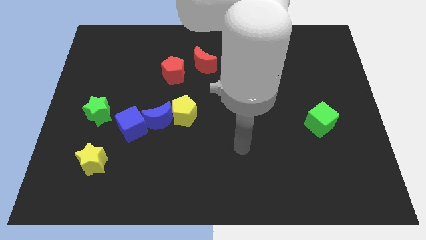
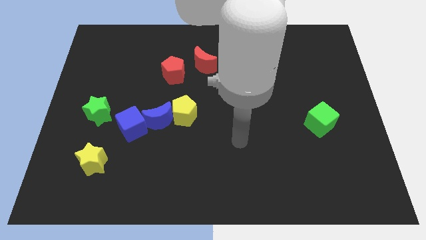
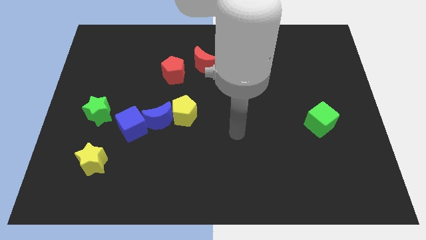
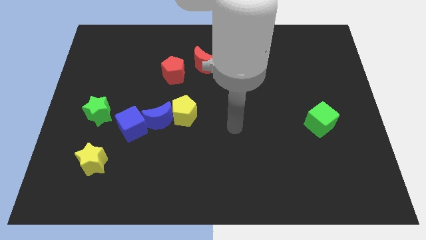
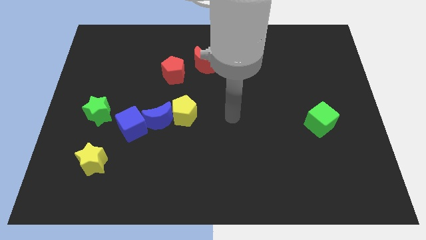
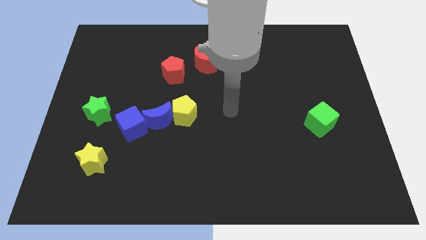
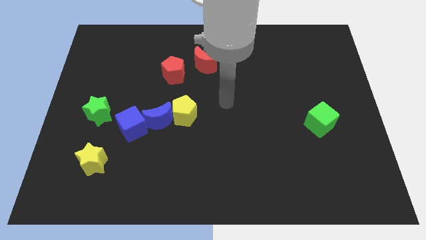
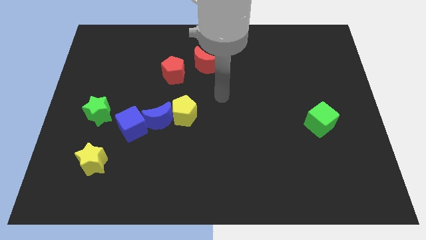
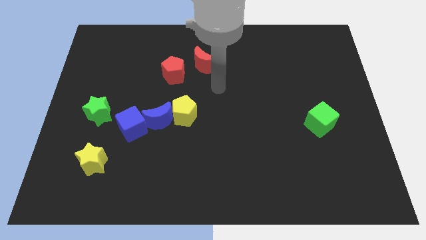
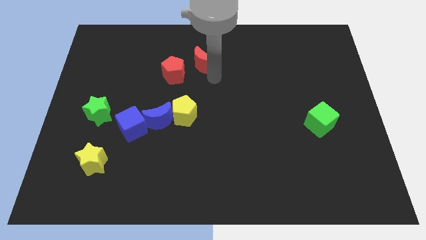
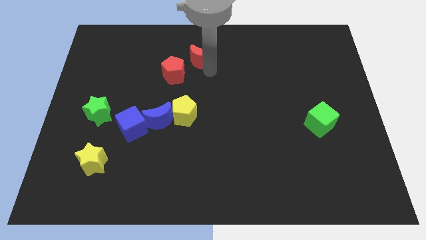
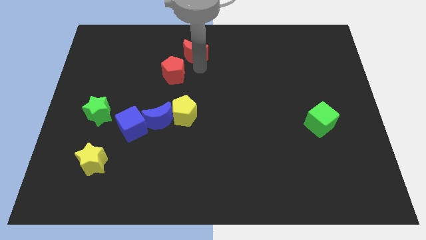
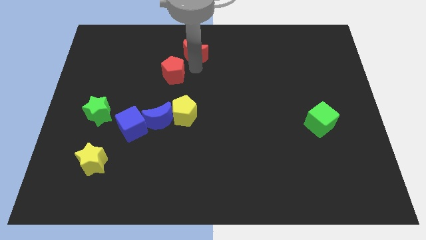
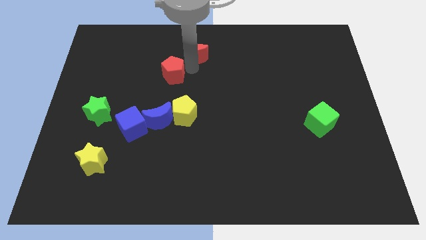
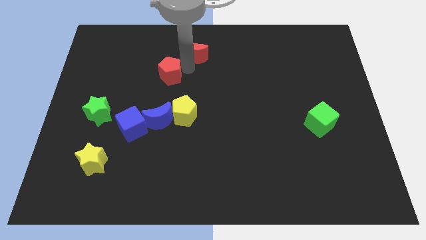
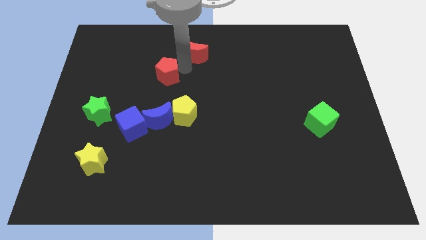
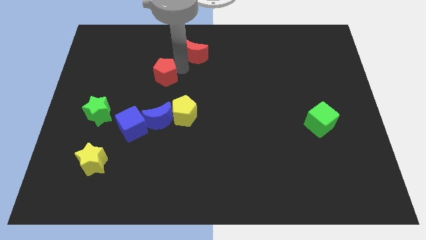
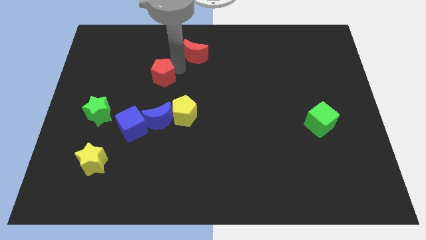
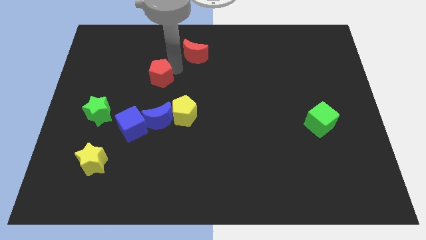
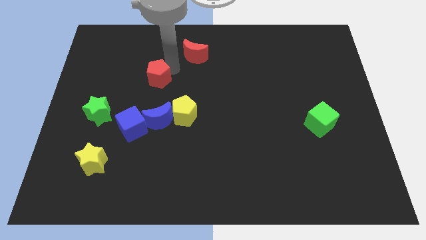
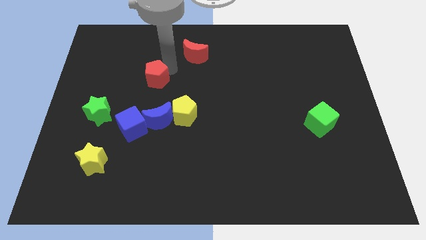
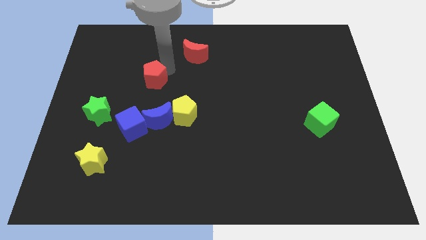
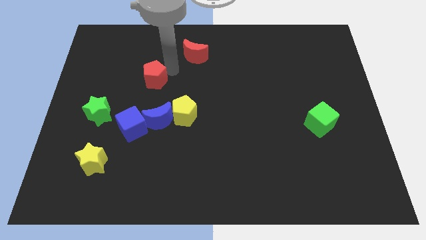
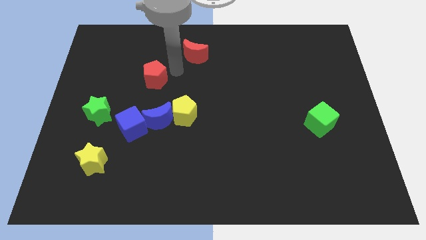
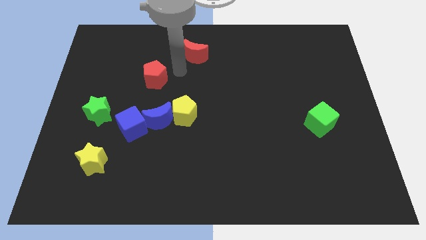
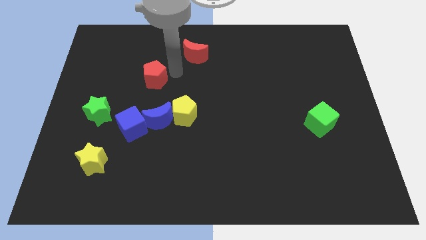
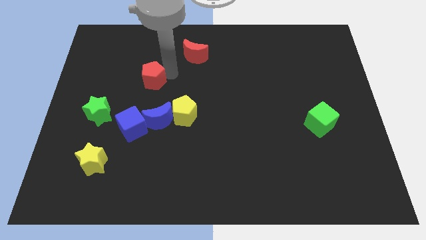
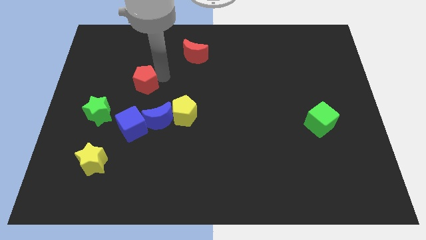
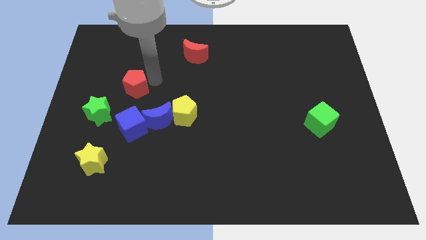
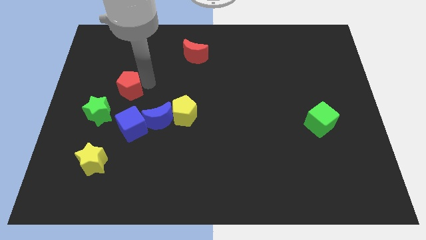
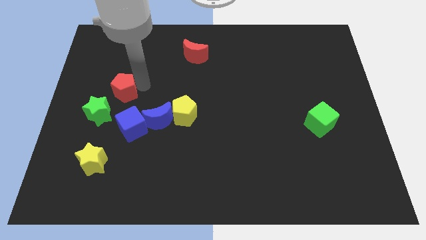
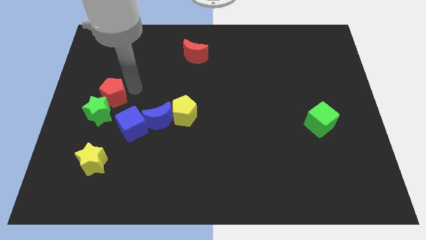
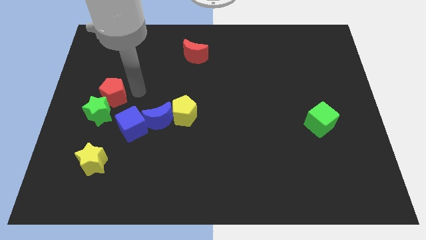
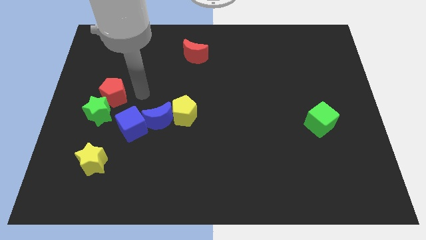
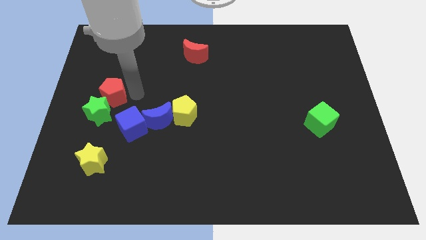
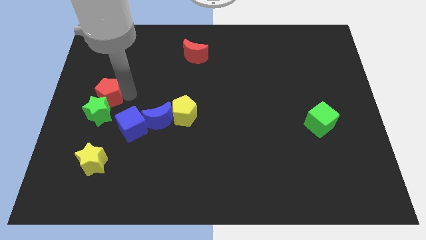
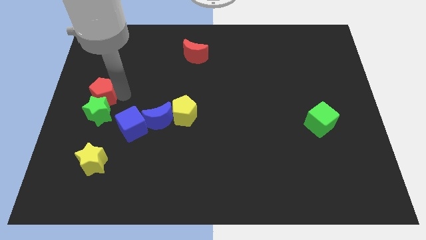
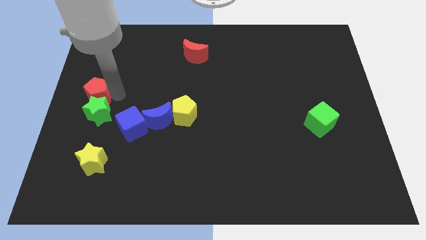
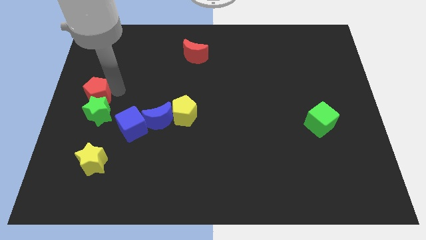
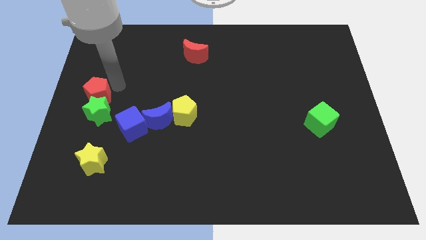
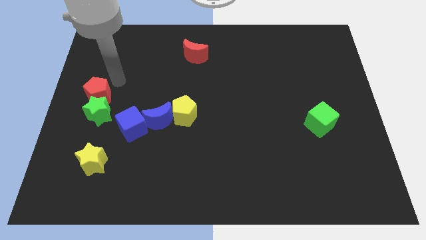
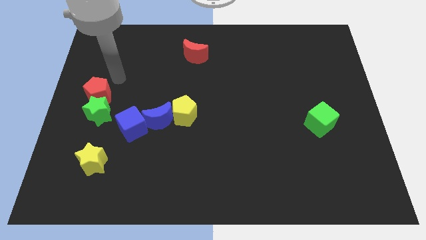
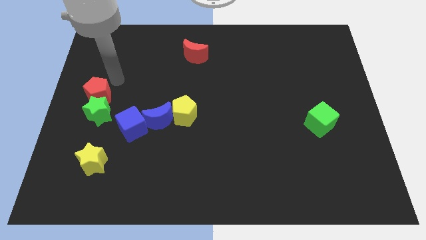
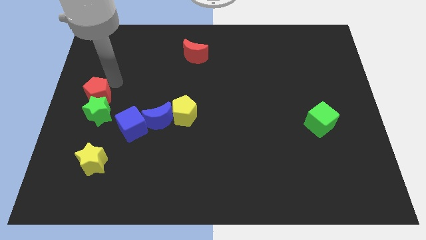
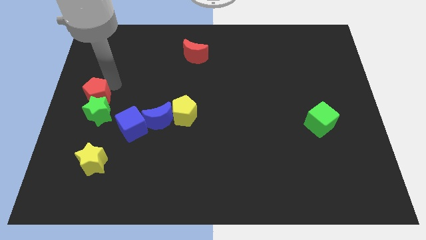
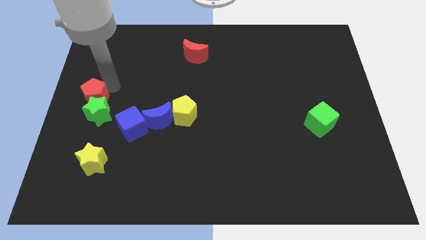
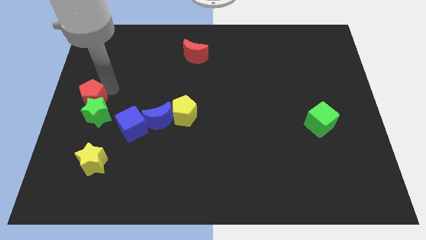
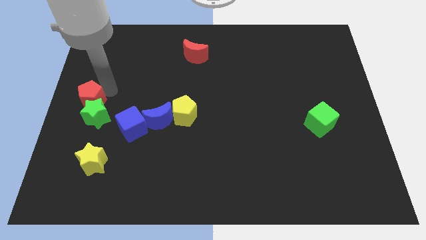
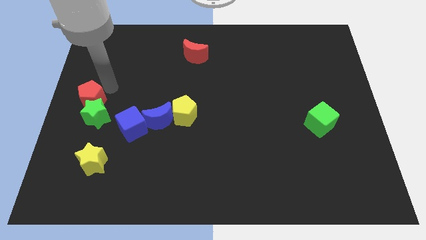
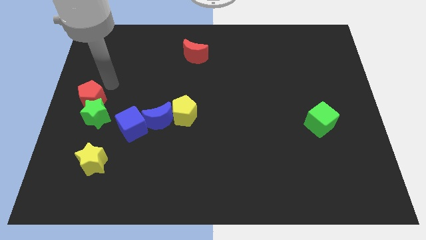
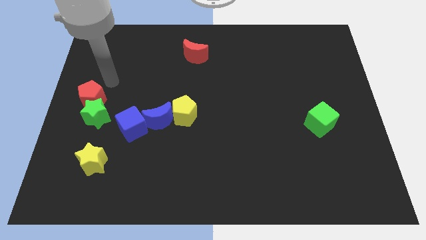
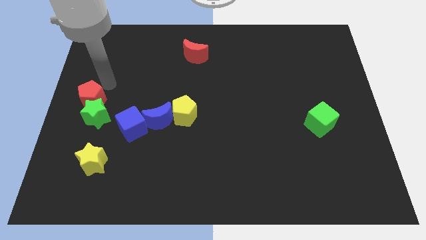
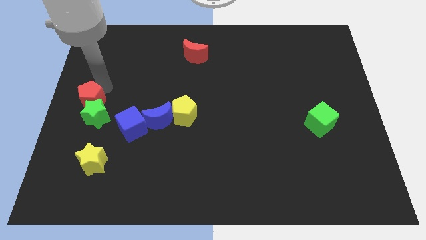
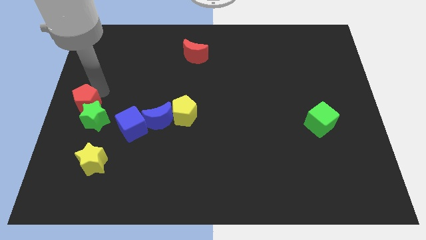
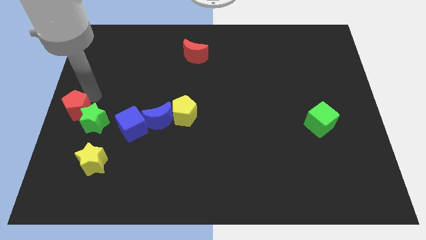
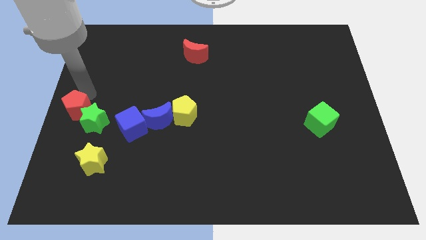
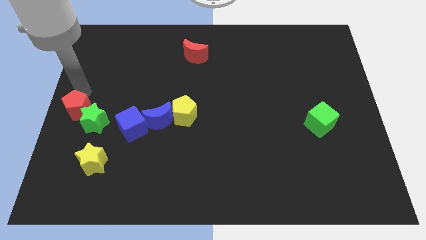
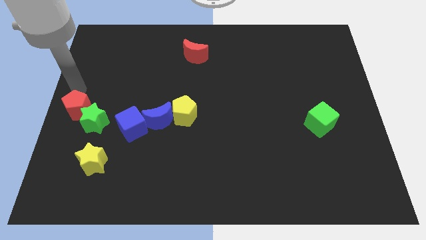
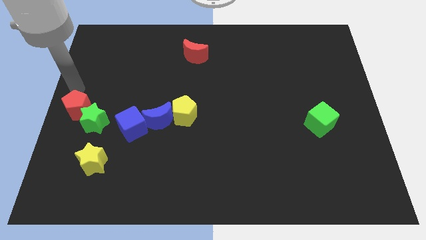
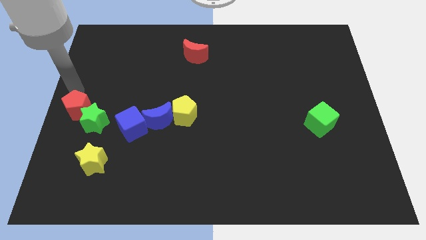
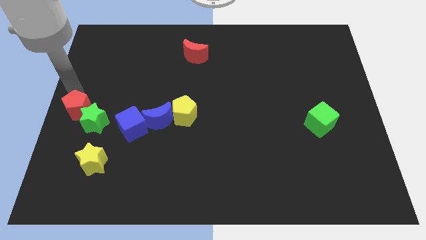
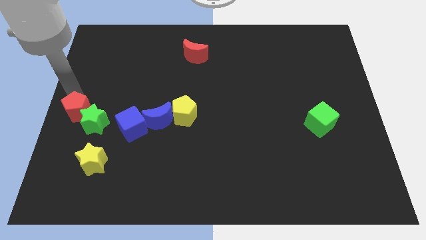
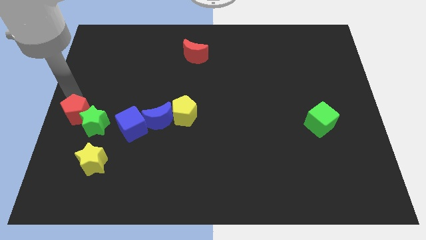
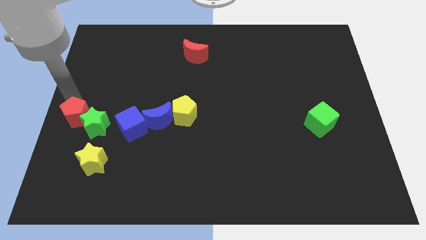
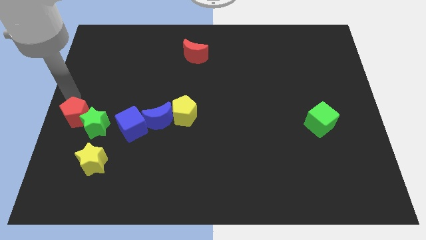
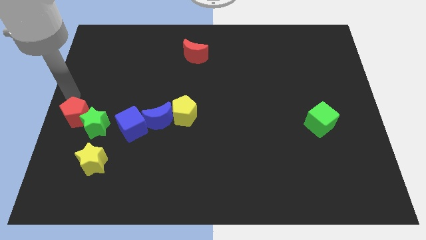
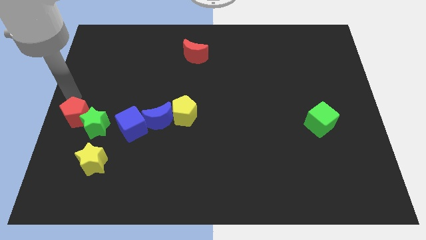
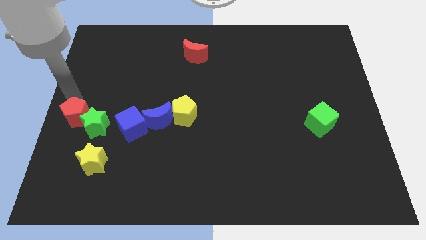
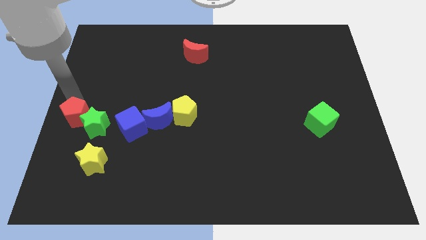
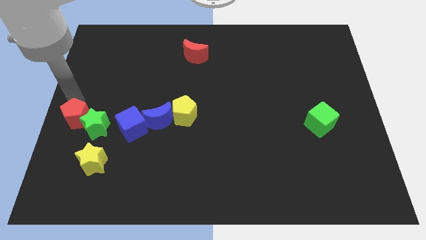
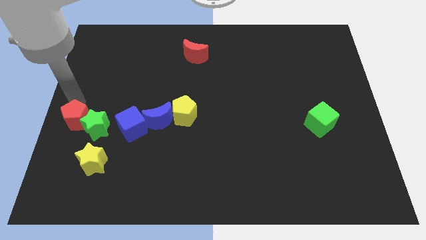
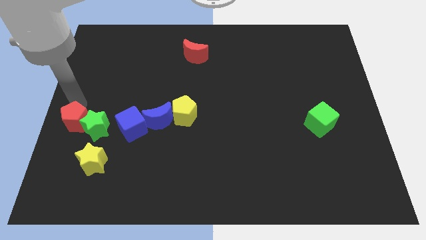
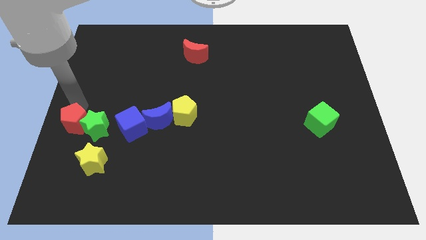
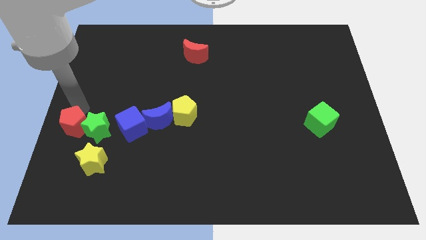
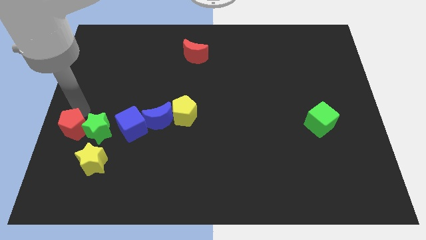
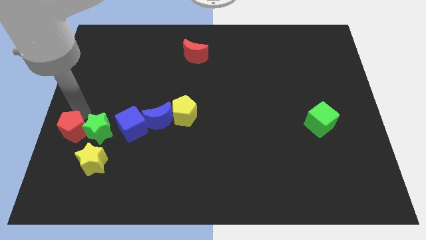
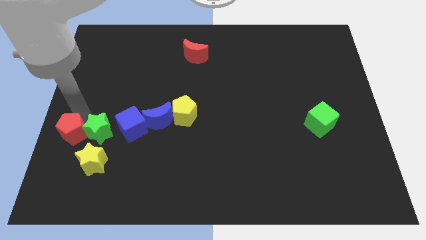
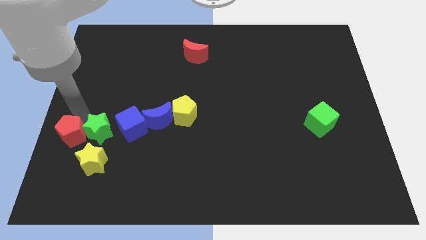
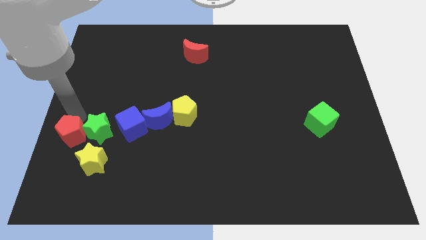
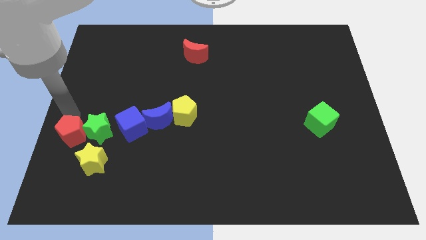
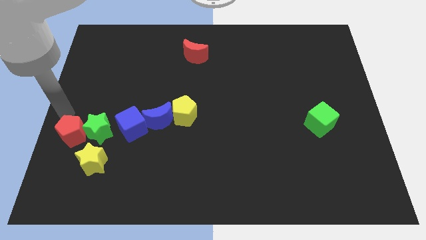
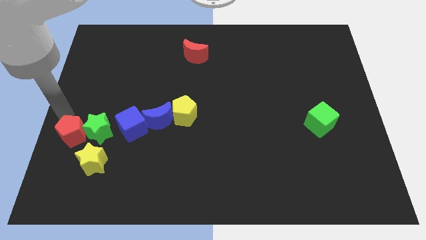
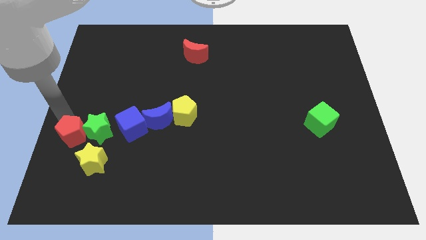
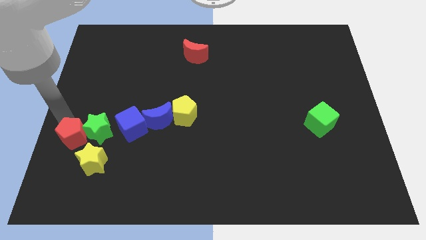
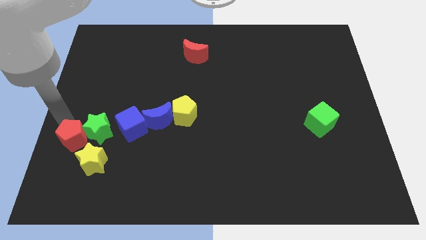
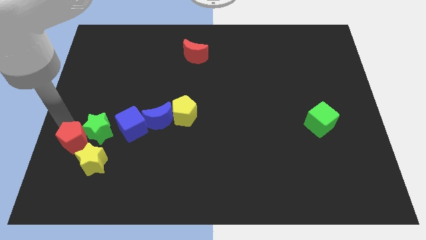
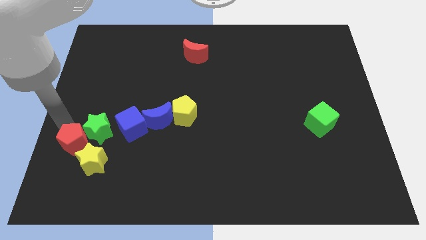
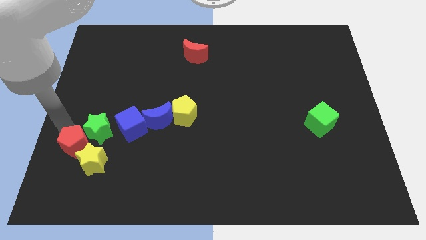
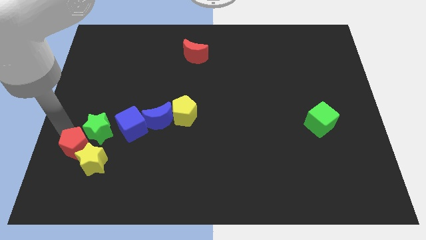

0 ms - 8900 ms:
move the red pentagon next to the yellow star
